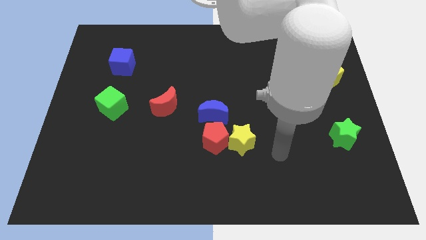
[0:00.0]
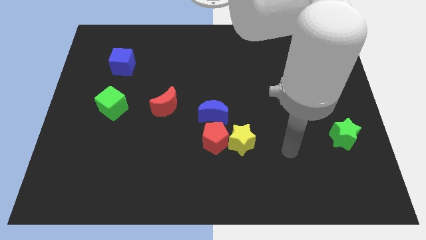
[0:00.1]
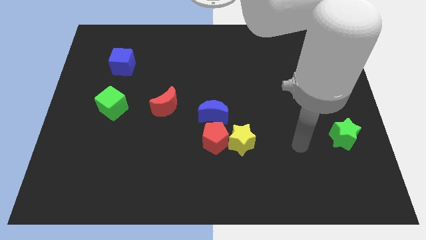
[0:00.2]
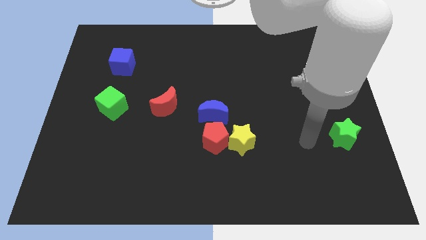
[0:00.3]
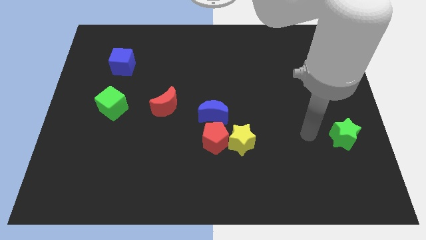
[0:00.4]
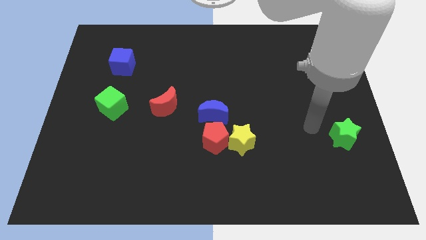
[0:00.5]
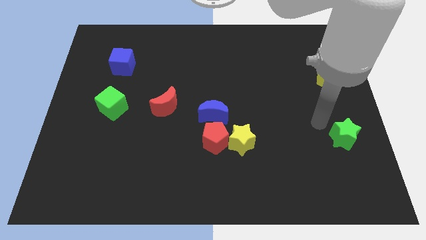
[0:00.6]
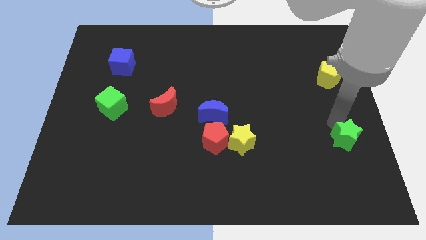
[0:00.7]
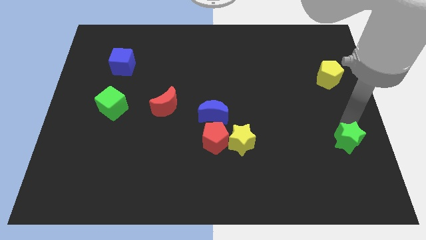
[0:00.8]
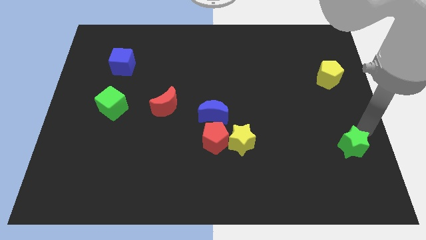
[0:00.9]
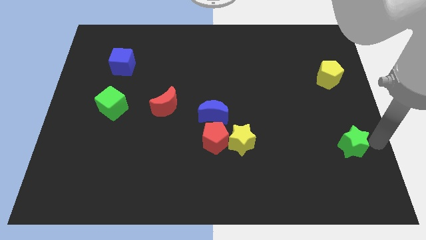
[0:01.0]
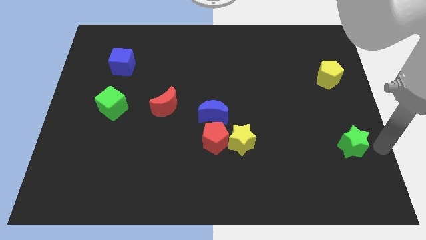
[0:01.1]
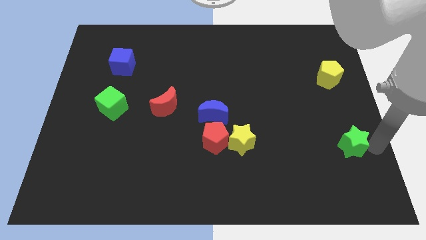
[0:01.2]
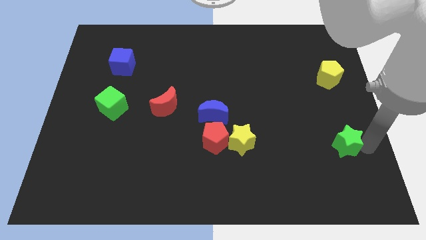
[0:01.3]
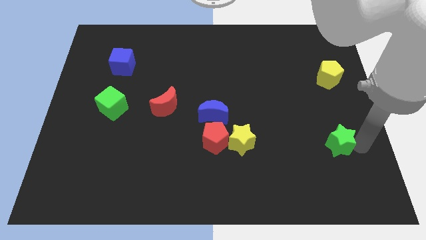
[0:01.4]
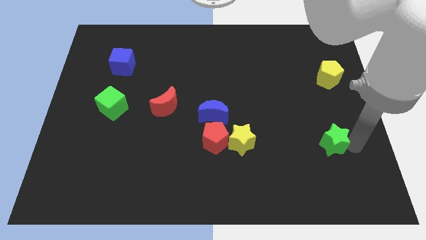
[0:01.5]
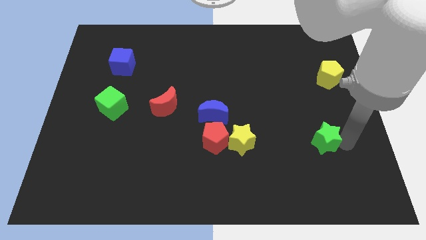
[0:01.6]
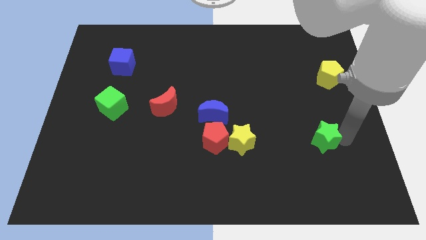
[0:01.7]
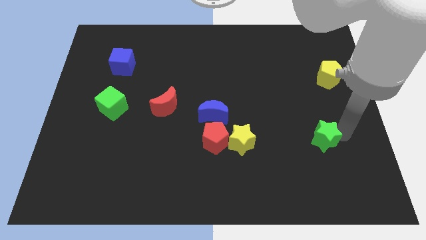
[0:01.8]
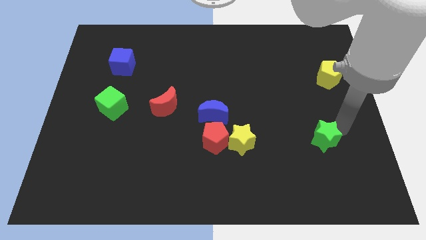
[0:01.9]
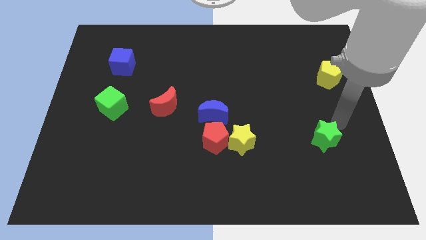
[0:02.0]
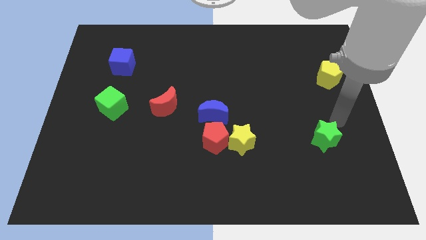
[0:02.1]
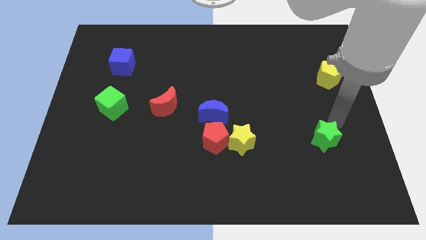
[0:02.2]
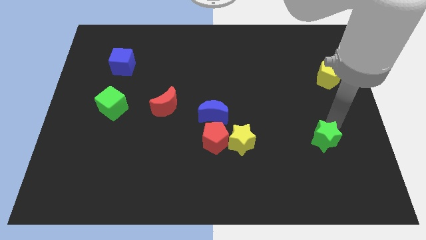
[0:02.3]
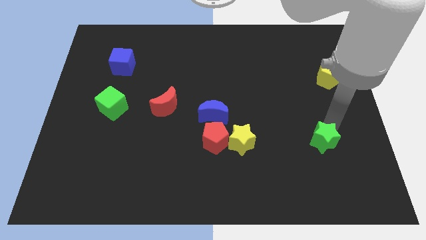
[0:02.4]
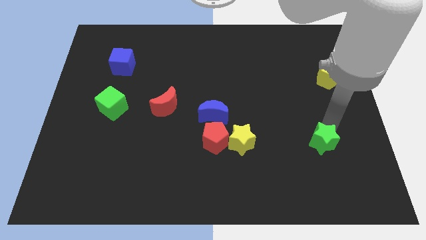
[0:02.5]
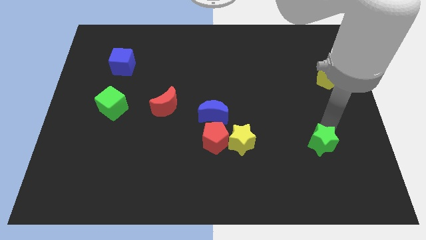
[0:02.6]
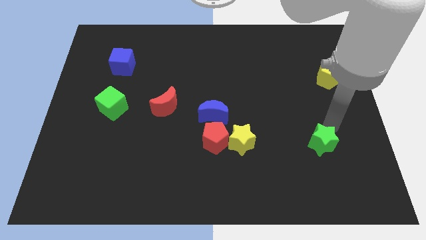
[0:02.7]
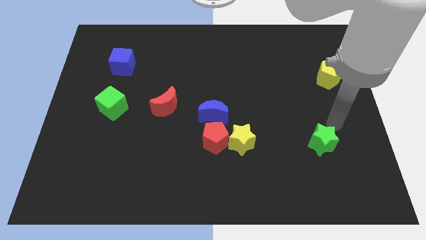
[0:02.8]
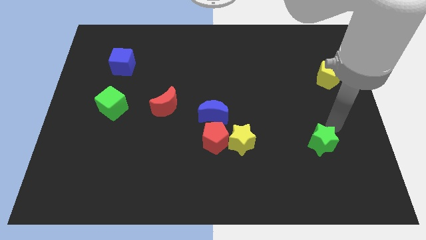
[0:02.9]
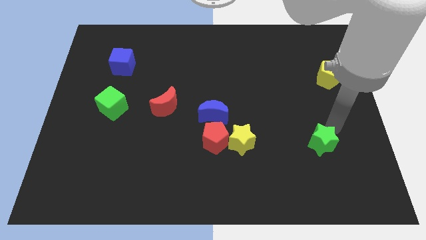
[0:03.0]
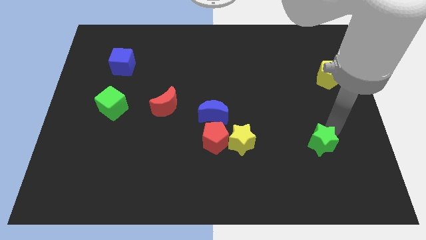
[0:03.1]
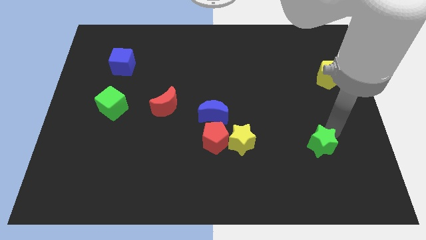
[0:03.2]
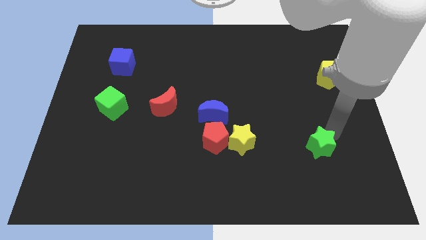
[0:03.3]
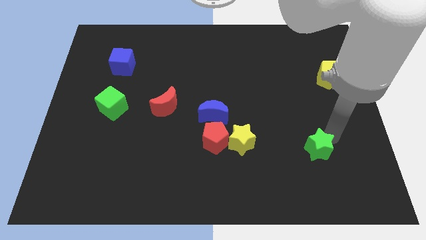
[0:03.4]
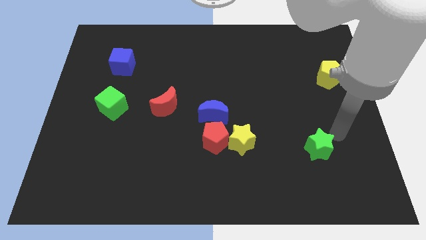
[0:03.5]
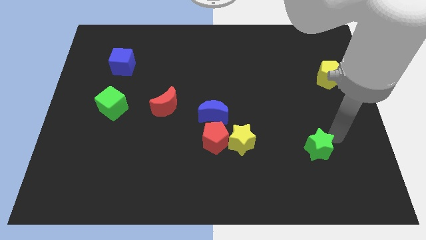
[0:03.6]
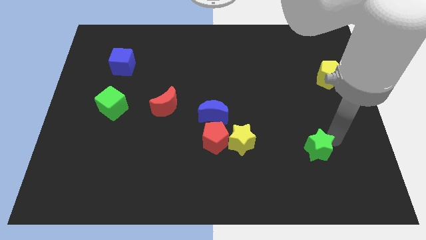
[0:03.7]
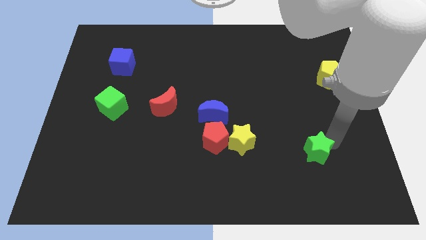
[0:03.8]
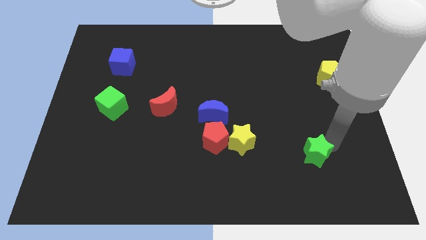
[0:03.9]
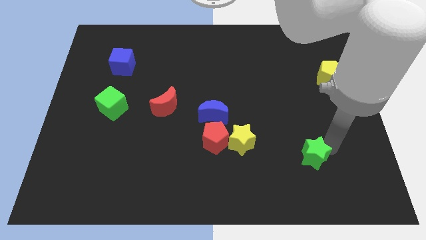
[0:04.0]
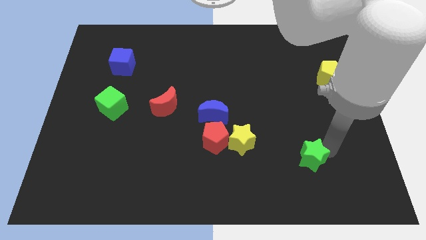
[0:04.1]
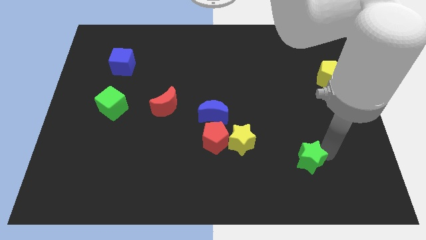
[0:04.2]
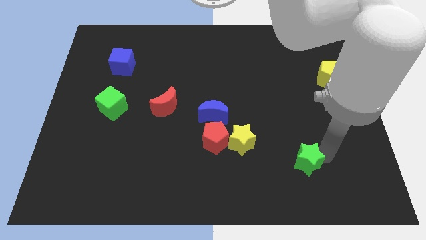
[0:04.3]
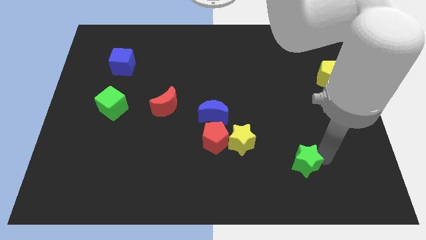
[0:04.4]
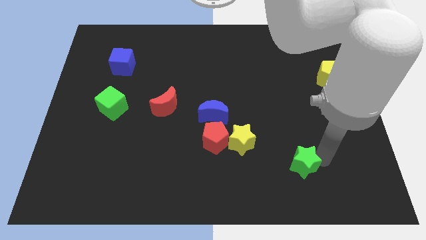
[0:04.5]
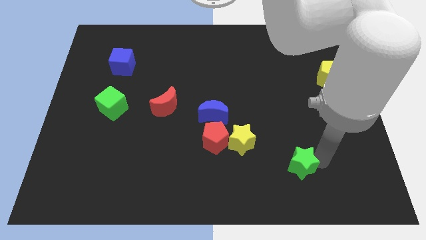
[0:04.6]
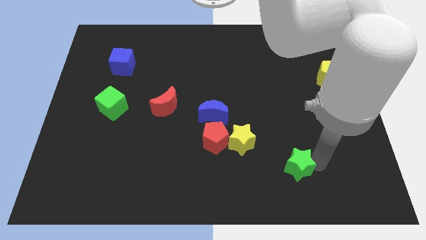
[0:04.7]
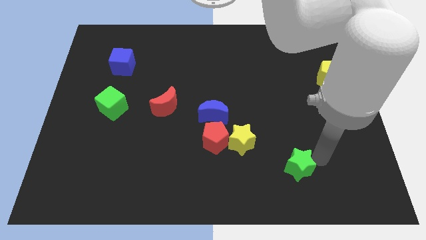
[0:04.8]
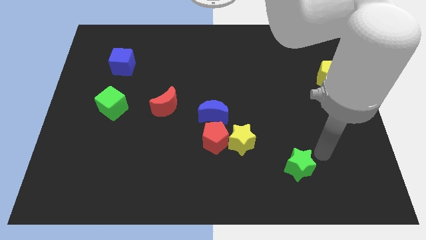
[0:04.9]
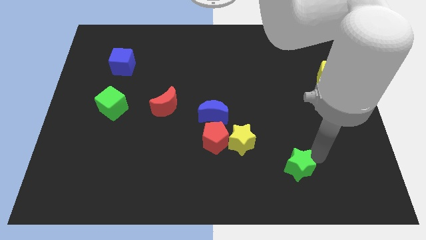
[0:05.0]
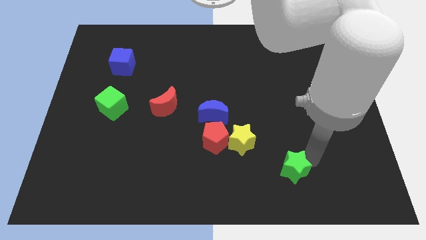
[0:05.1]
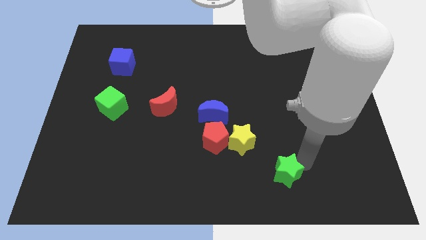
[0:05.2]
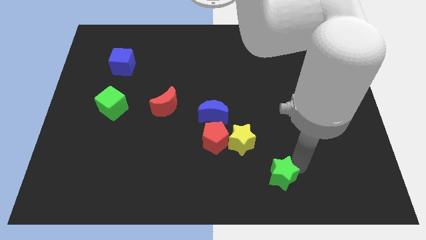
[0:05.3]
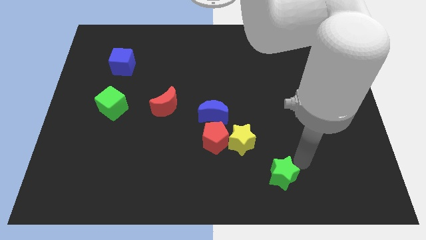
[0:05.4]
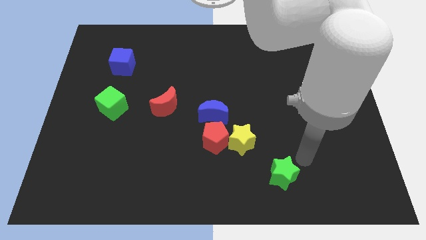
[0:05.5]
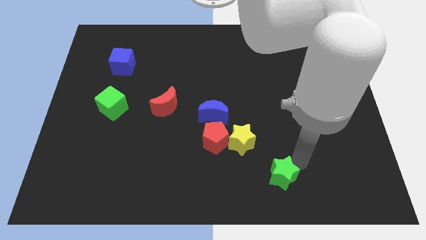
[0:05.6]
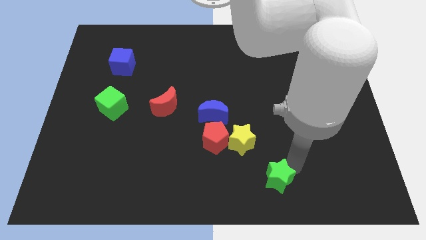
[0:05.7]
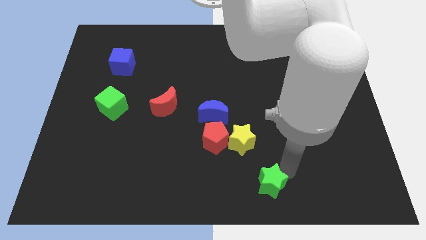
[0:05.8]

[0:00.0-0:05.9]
move the green star to the bottom side
